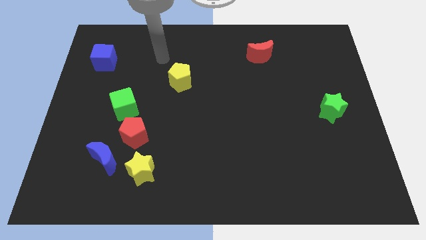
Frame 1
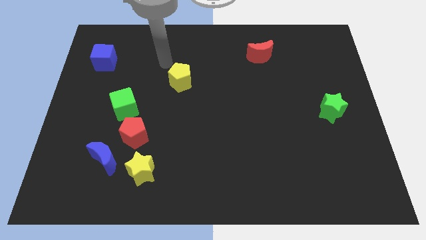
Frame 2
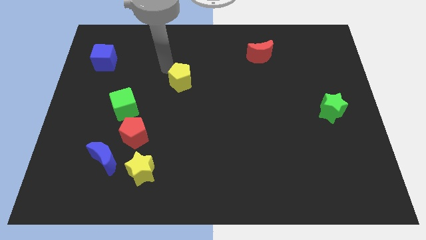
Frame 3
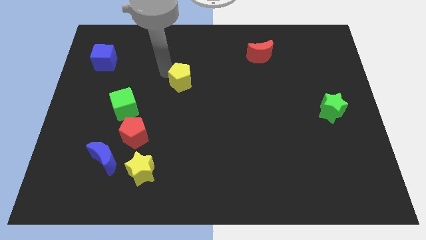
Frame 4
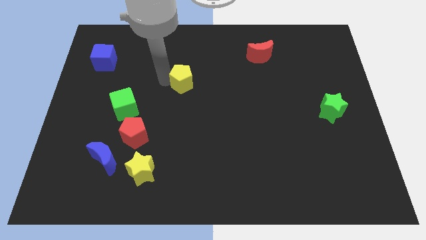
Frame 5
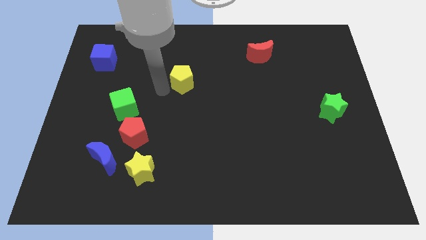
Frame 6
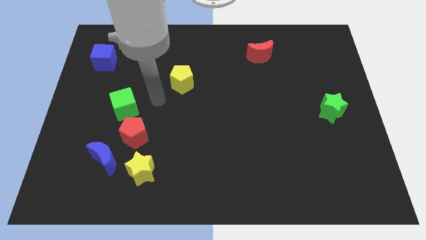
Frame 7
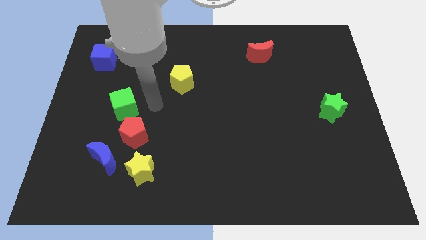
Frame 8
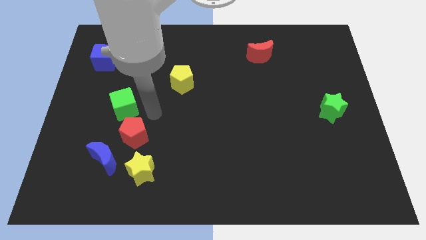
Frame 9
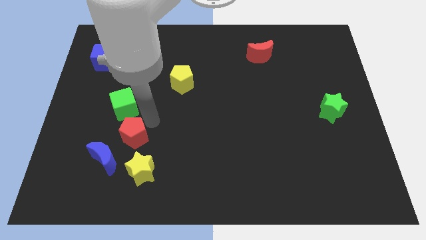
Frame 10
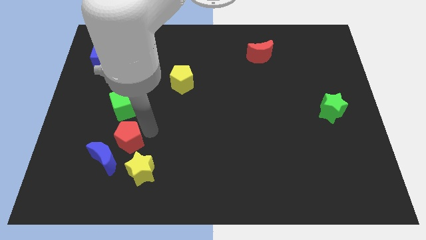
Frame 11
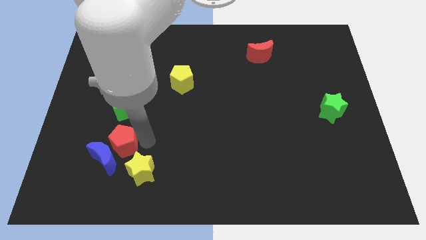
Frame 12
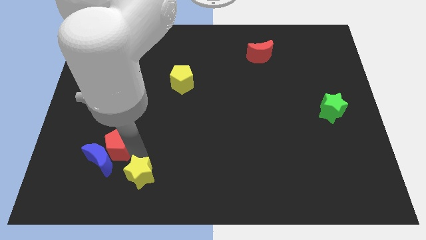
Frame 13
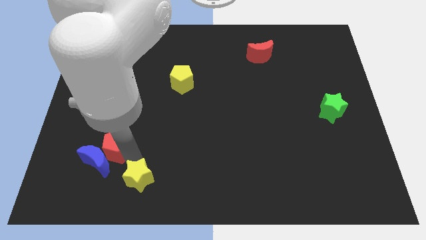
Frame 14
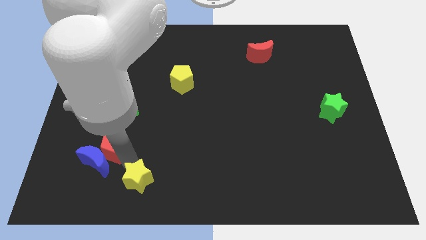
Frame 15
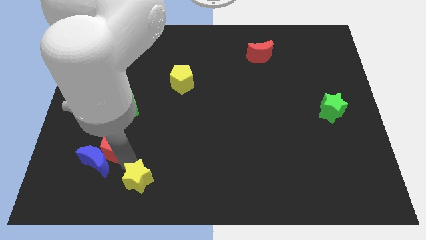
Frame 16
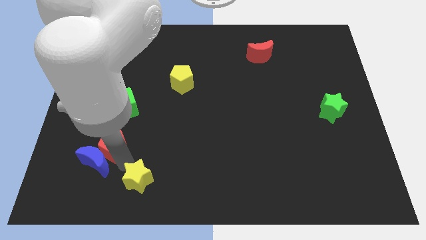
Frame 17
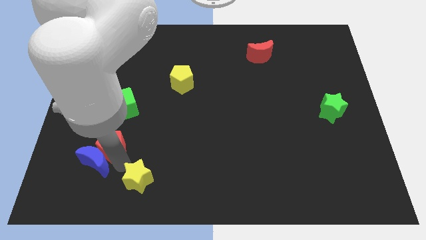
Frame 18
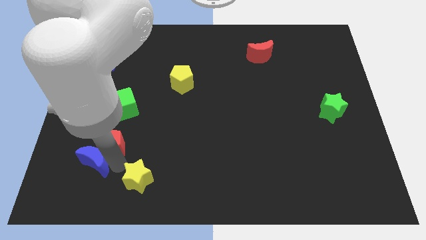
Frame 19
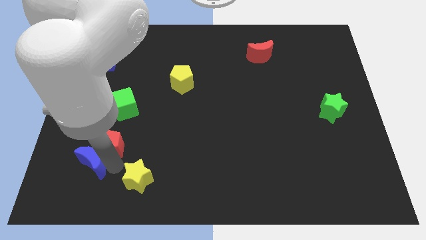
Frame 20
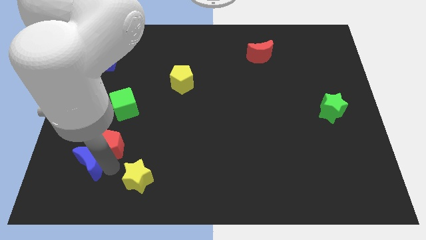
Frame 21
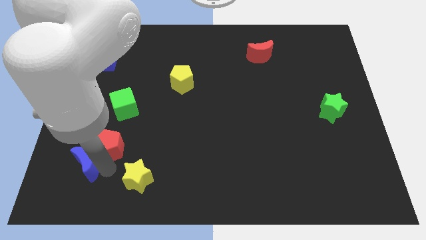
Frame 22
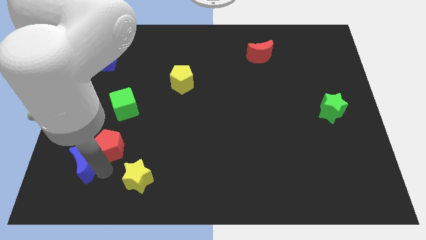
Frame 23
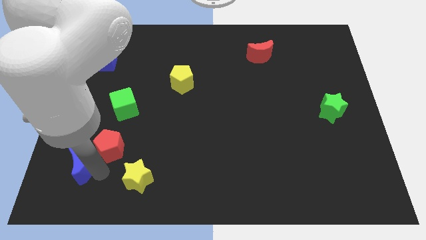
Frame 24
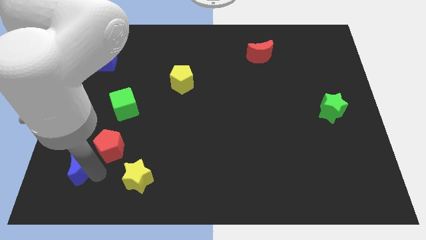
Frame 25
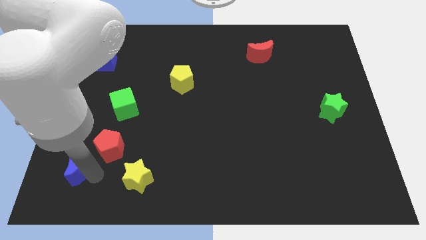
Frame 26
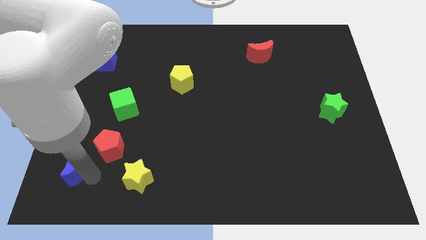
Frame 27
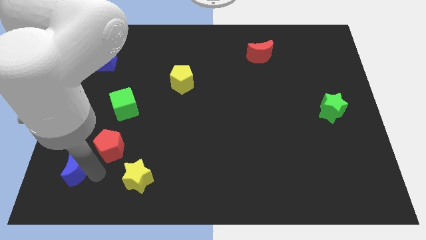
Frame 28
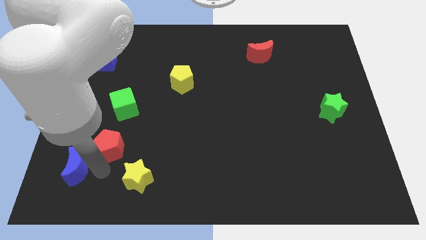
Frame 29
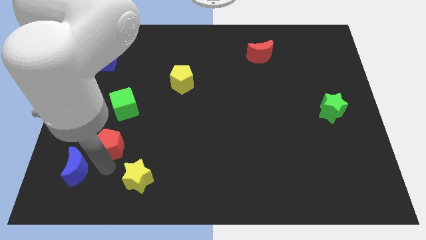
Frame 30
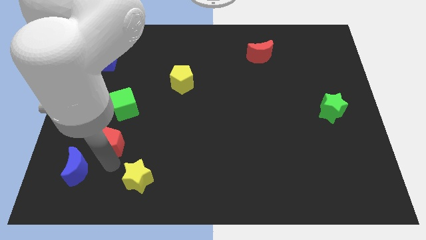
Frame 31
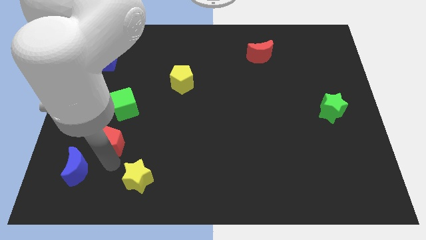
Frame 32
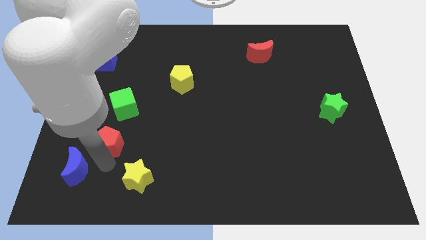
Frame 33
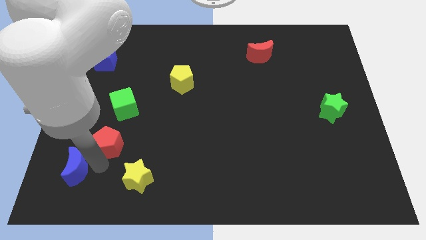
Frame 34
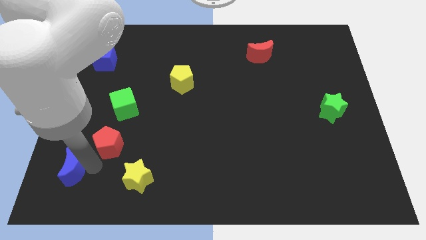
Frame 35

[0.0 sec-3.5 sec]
move the blue moon away from the red pentagon and yellow star

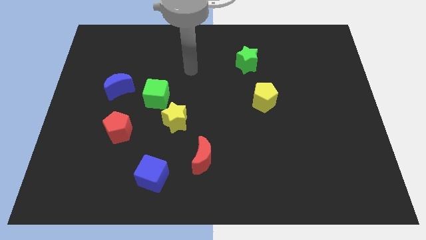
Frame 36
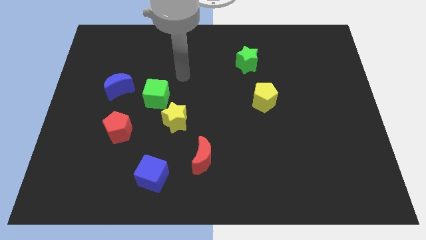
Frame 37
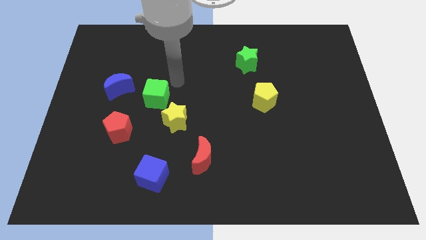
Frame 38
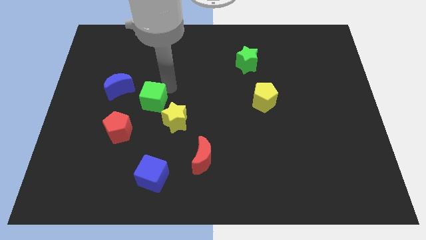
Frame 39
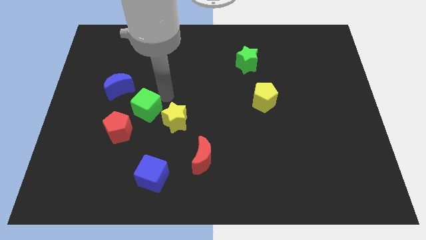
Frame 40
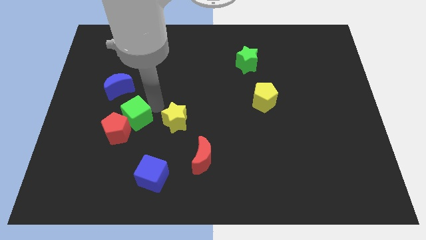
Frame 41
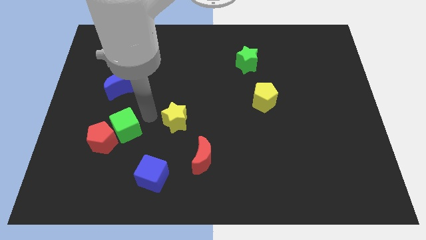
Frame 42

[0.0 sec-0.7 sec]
pull the yellow star apart from the green cube

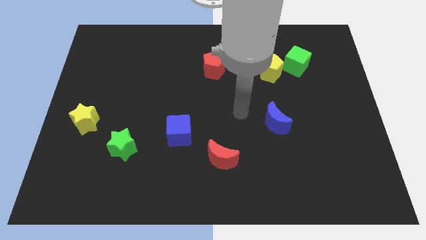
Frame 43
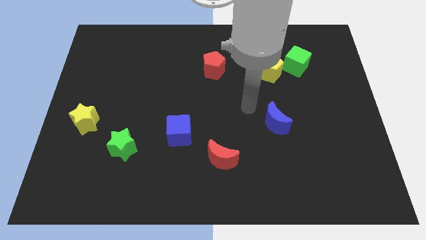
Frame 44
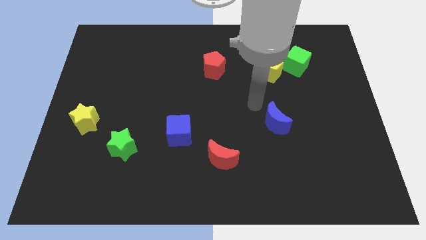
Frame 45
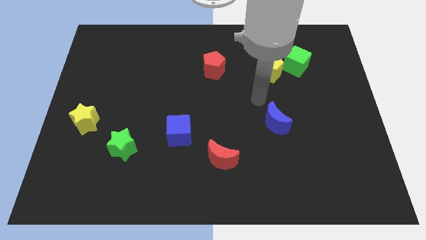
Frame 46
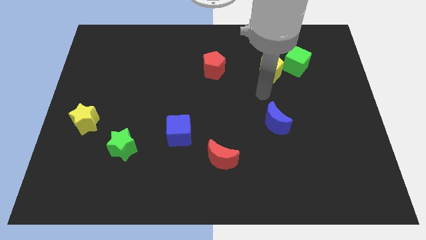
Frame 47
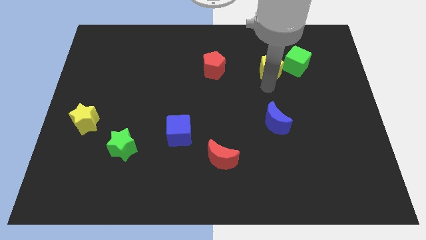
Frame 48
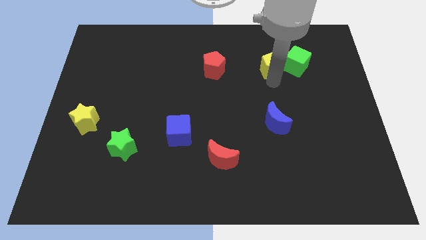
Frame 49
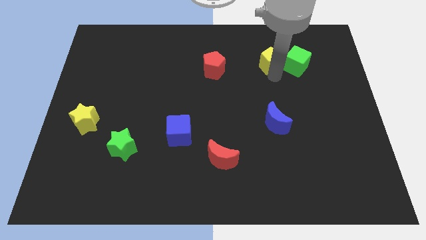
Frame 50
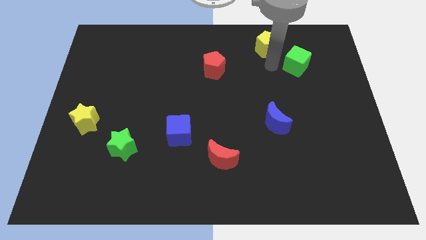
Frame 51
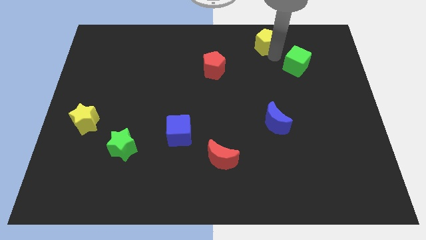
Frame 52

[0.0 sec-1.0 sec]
move the green cube away from the yellow pentagon

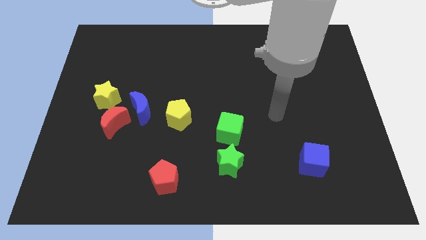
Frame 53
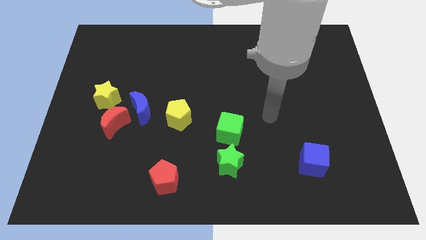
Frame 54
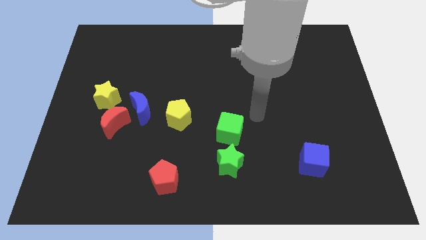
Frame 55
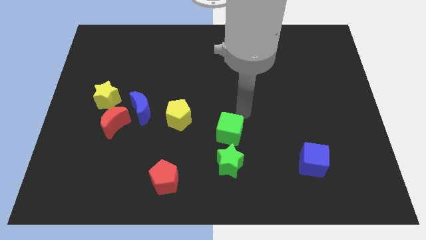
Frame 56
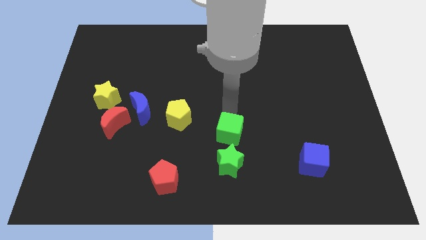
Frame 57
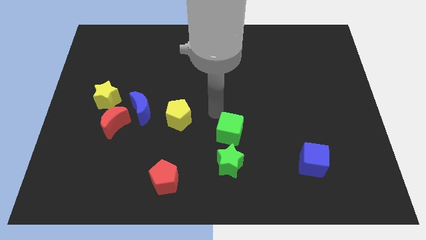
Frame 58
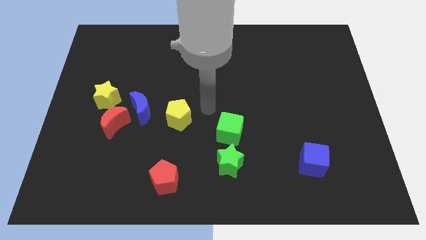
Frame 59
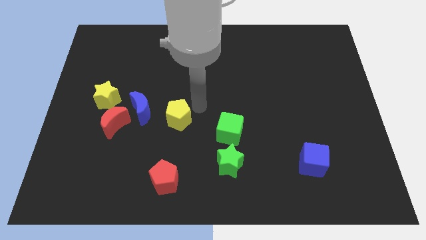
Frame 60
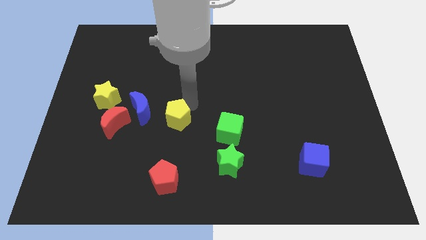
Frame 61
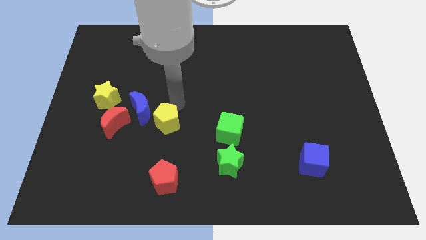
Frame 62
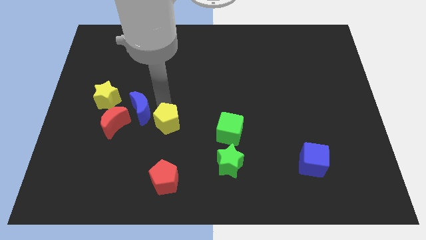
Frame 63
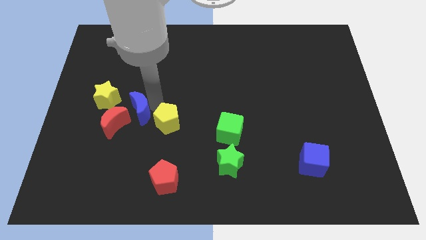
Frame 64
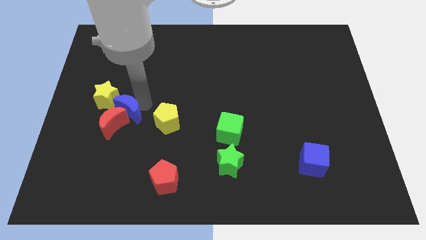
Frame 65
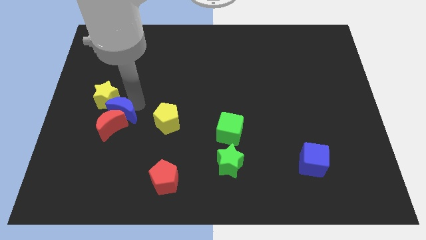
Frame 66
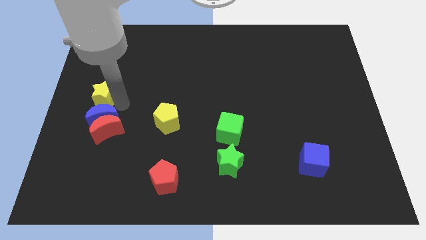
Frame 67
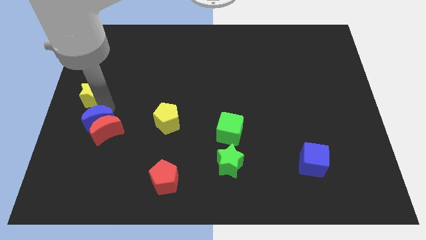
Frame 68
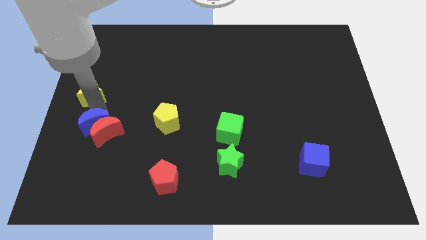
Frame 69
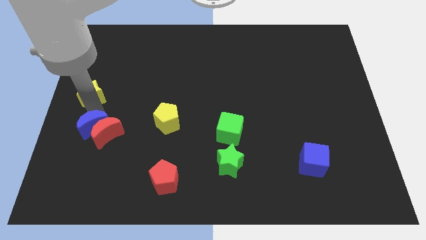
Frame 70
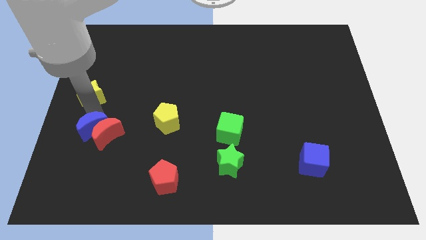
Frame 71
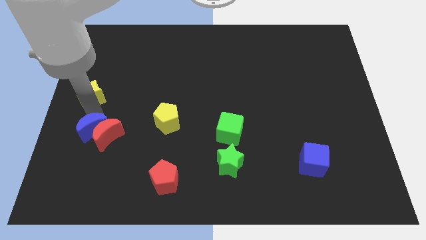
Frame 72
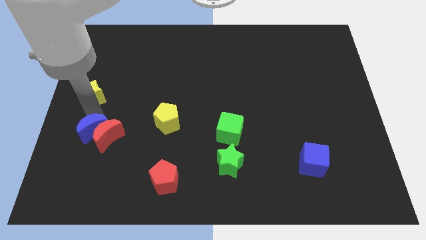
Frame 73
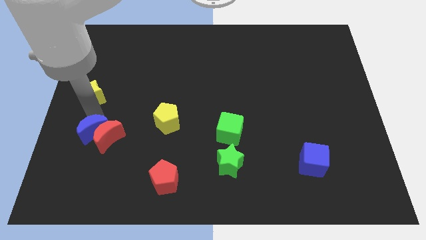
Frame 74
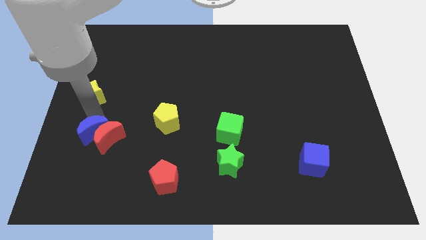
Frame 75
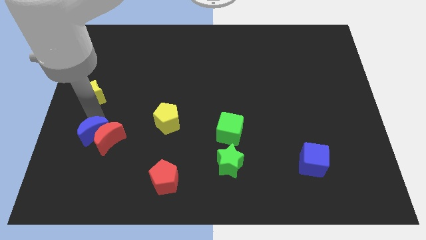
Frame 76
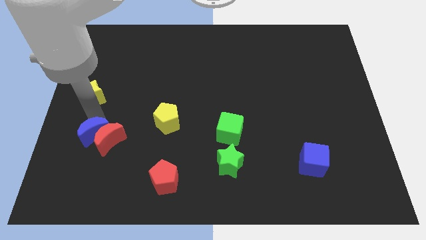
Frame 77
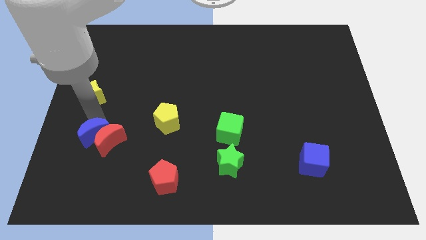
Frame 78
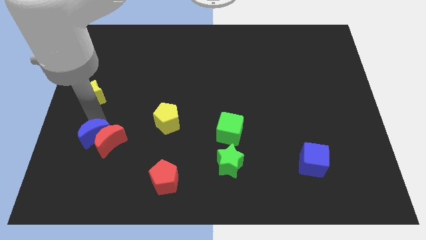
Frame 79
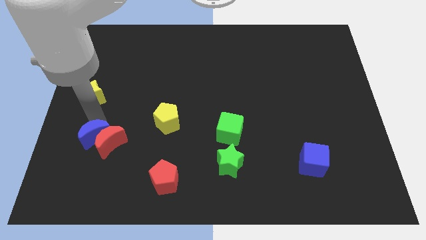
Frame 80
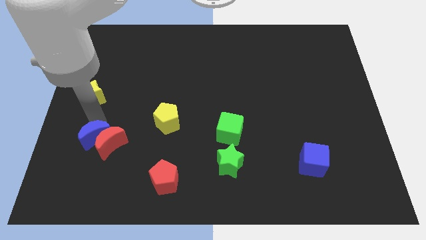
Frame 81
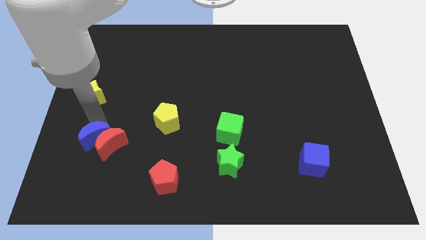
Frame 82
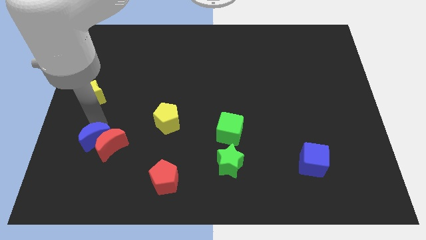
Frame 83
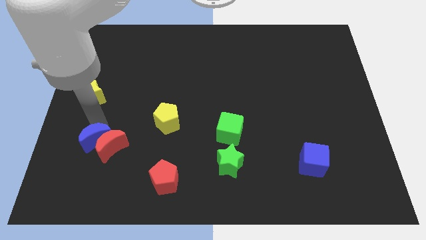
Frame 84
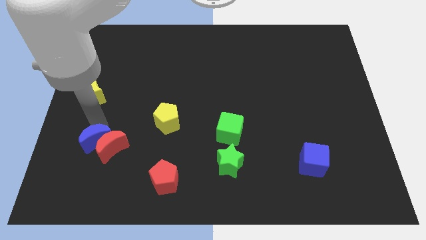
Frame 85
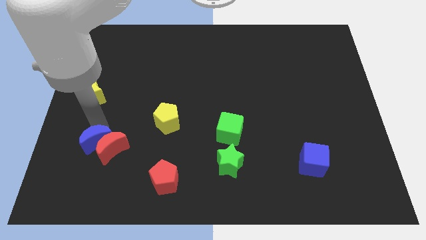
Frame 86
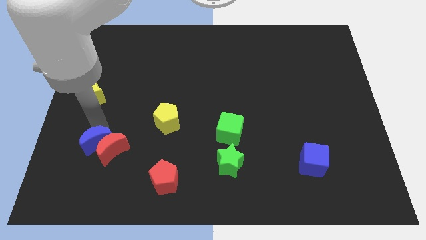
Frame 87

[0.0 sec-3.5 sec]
separate the red moon from the blue moon and yellow star

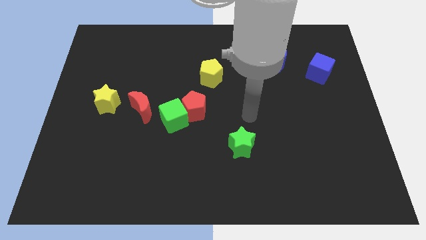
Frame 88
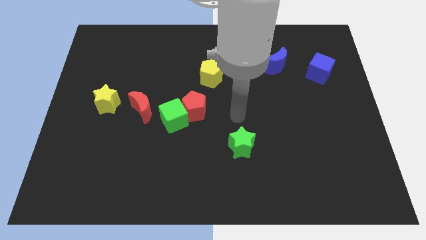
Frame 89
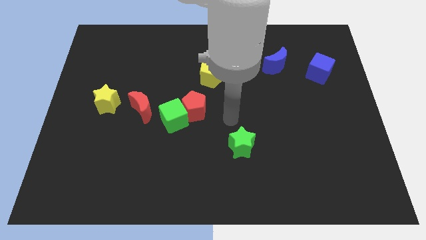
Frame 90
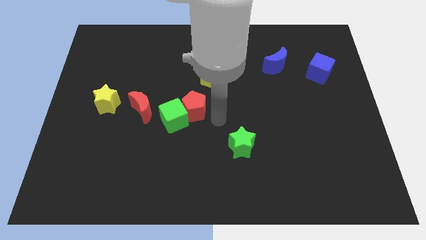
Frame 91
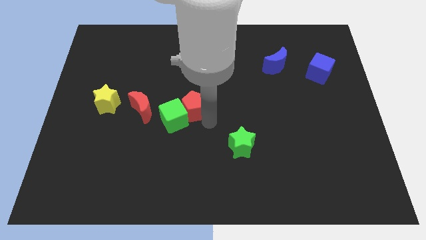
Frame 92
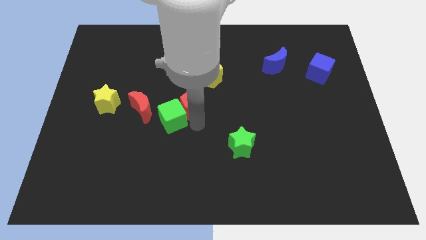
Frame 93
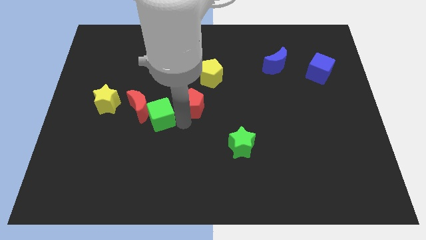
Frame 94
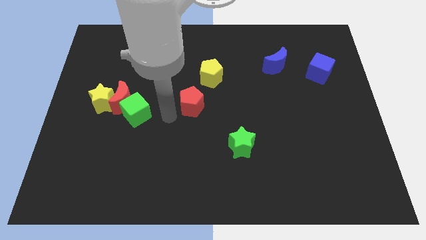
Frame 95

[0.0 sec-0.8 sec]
separate the red pentagon from the green cube
